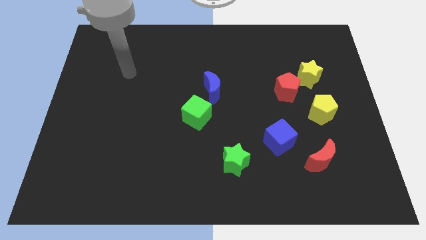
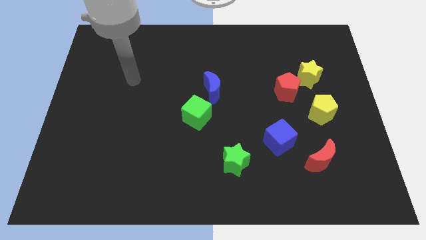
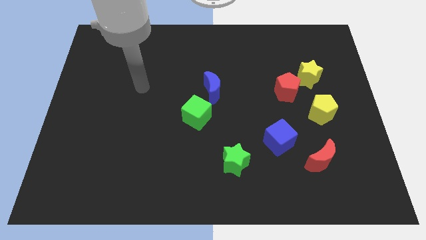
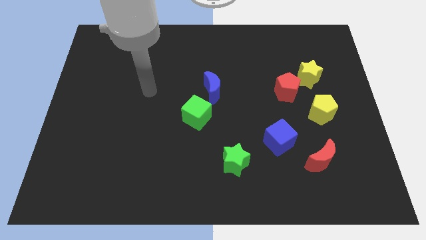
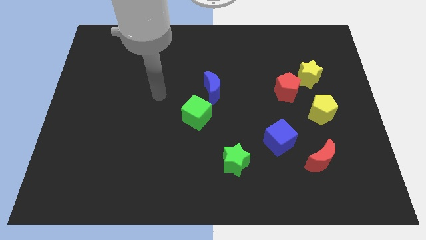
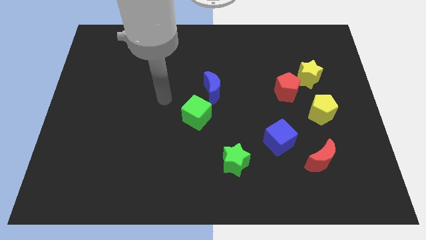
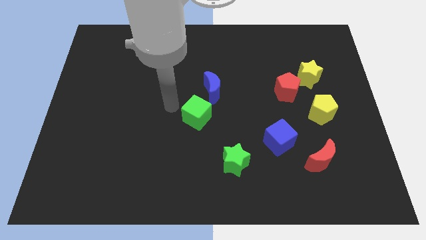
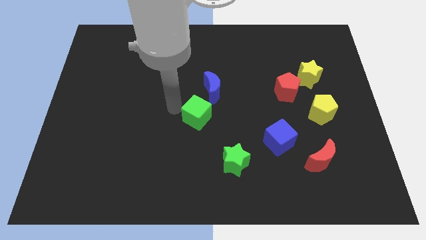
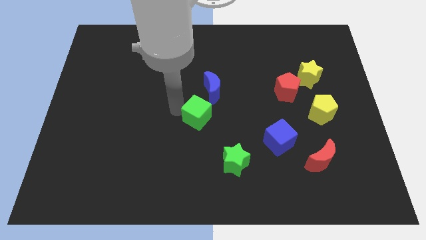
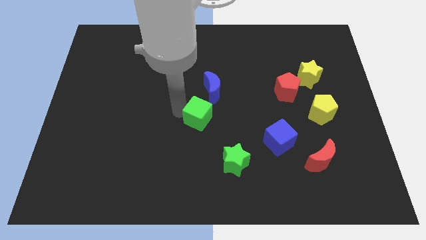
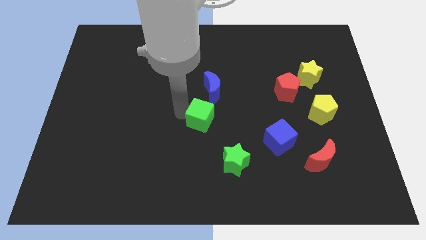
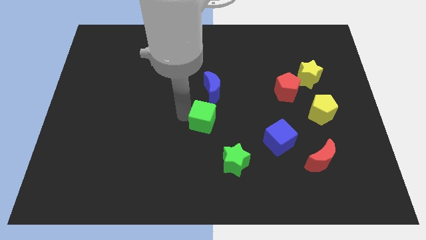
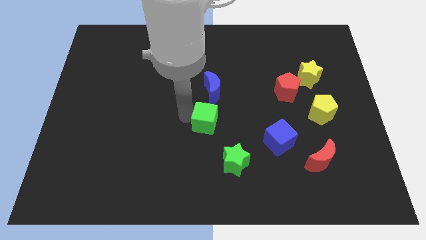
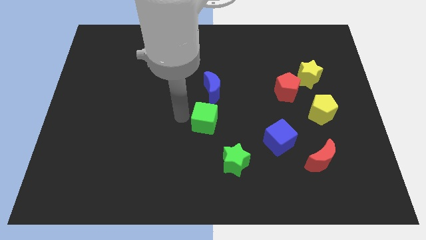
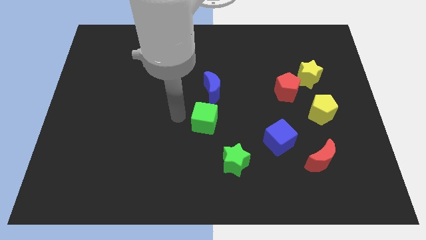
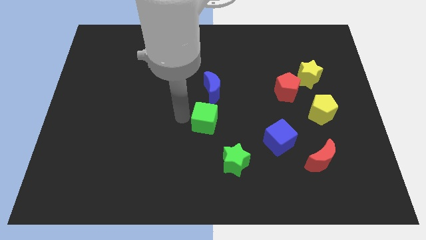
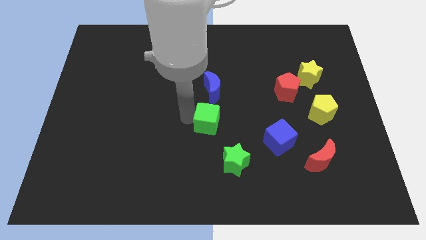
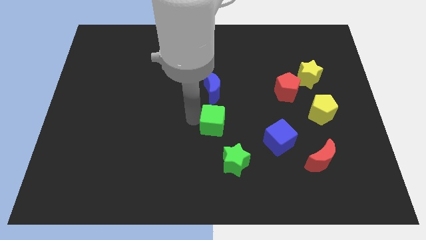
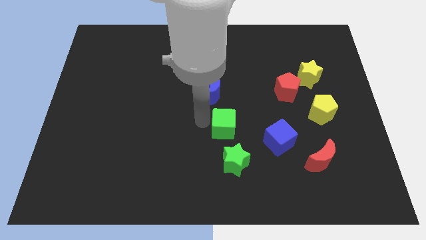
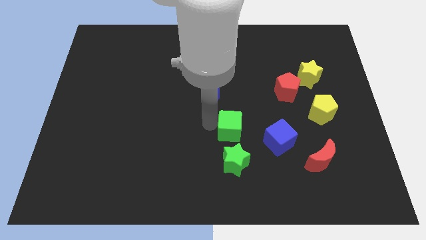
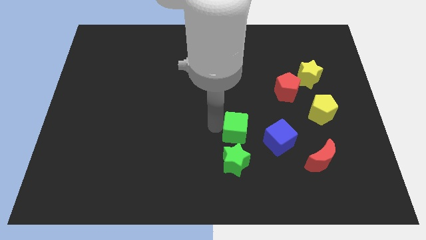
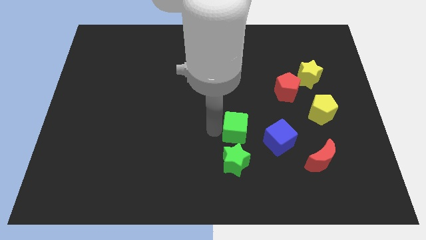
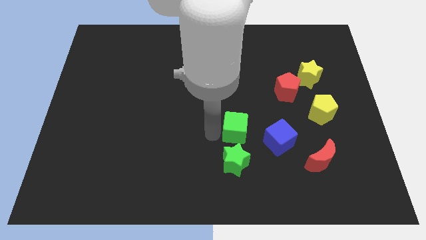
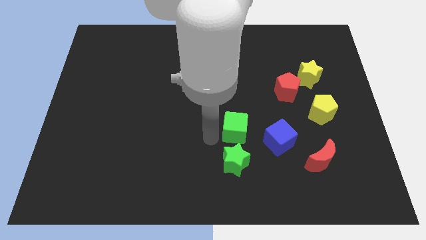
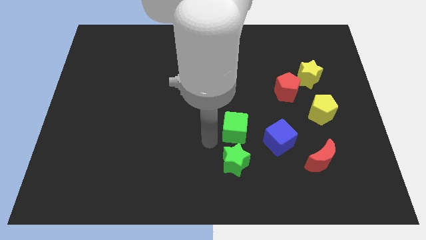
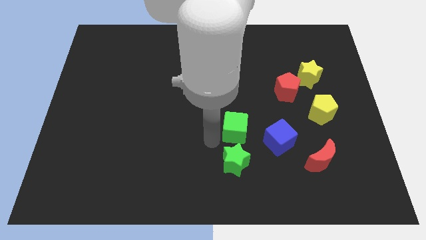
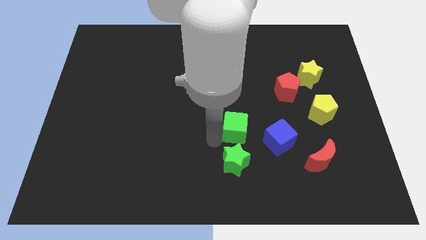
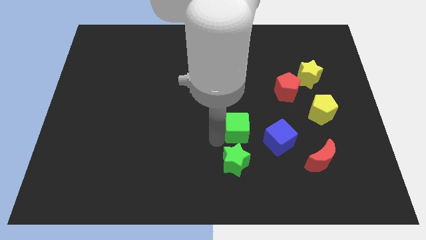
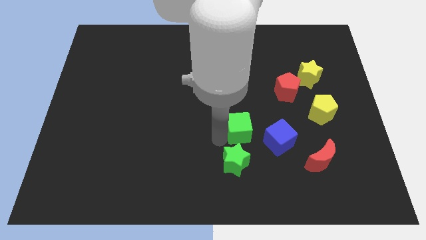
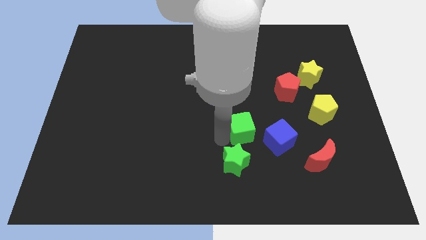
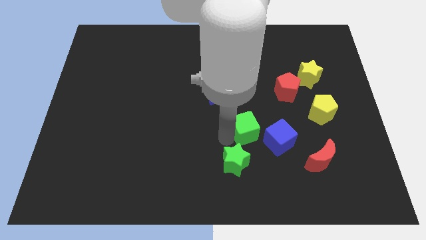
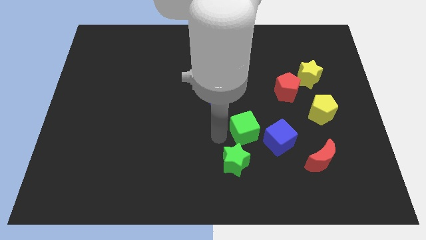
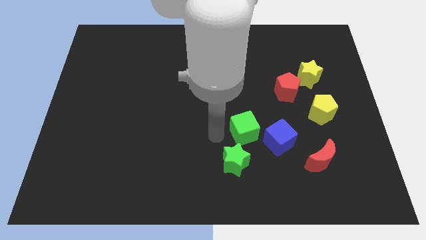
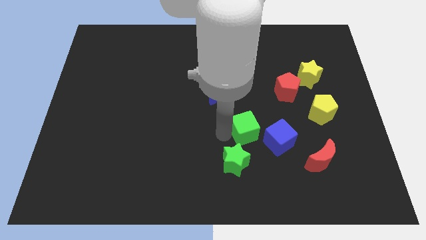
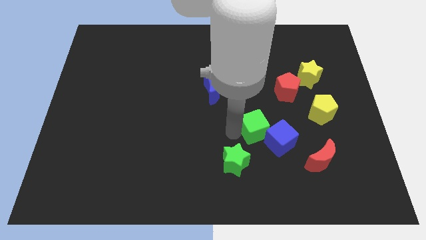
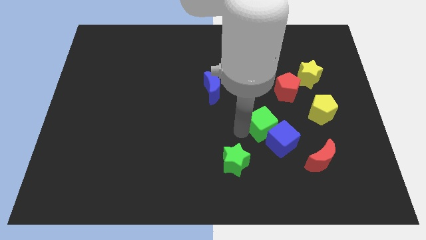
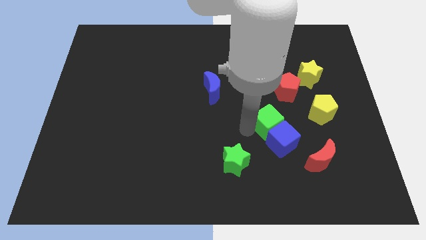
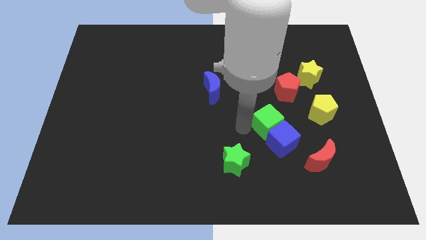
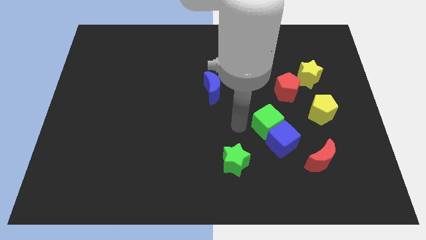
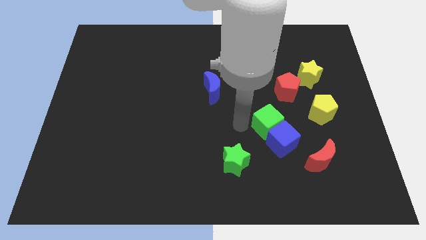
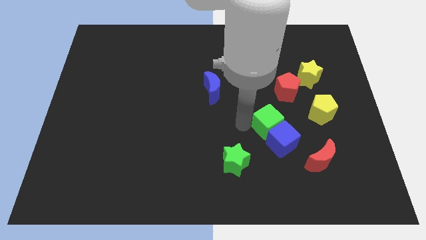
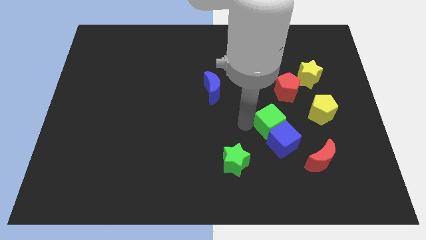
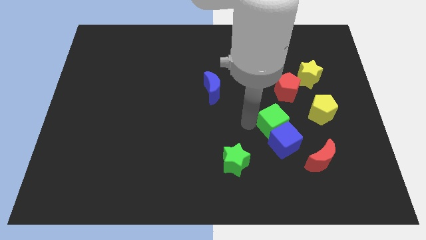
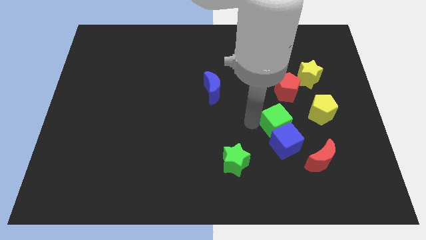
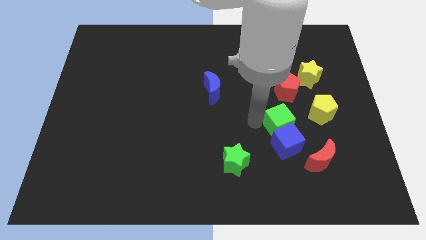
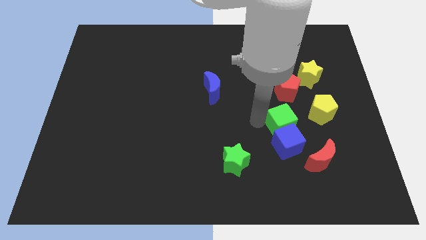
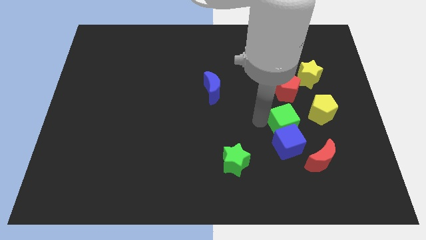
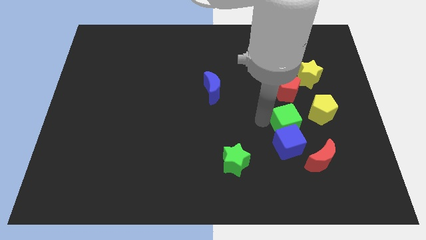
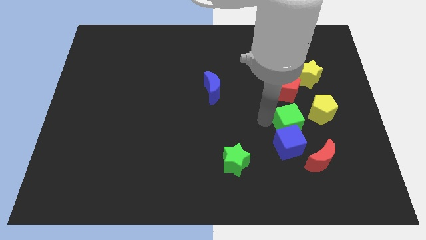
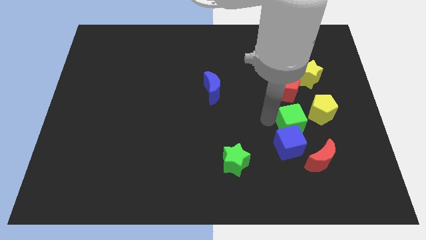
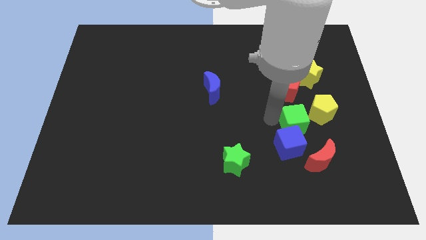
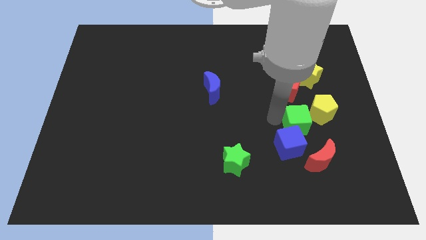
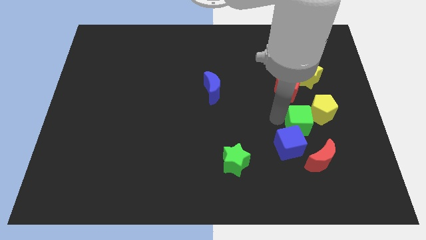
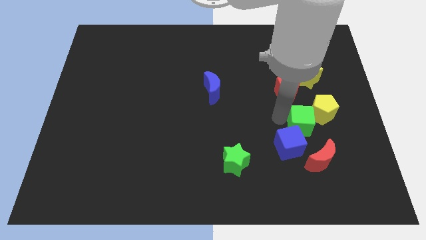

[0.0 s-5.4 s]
push the green cube to the bottom of the yellow star

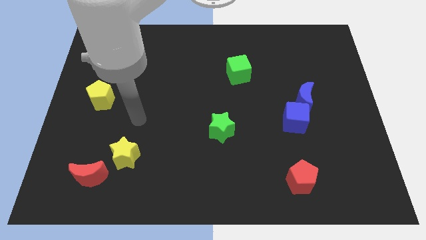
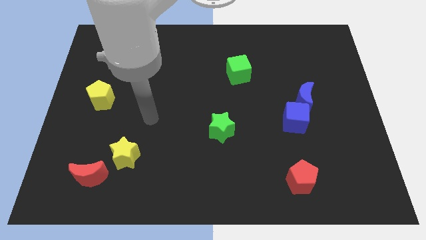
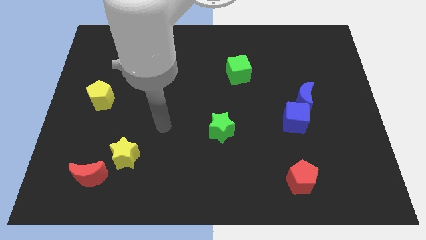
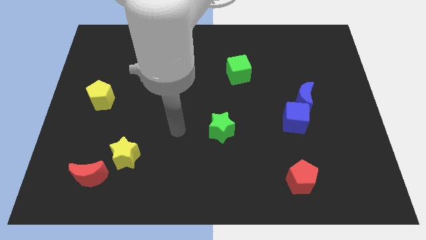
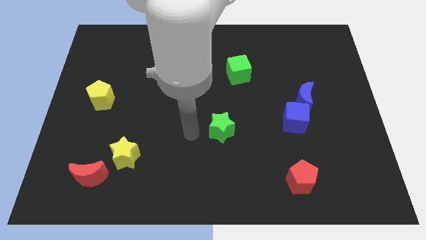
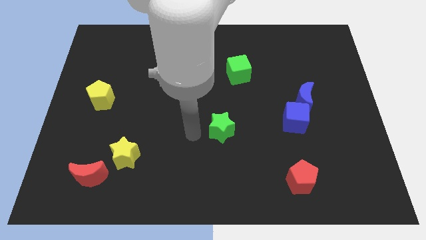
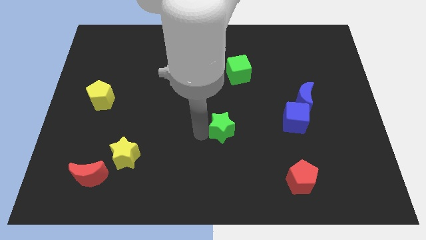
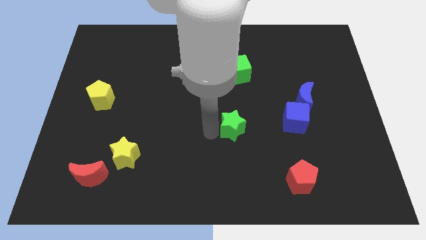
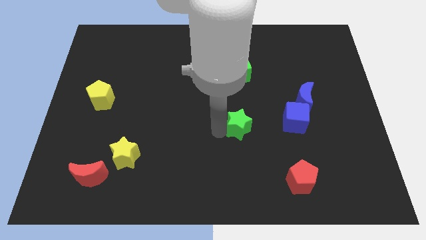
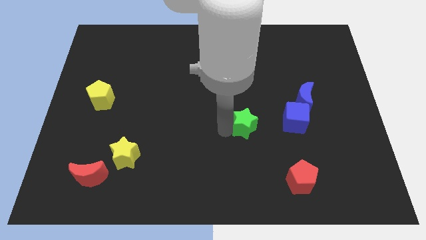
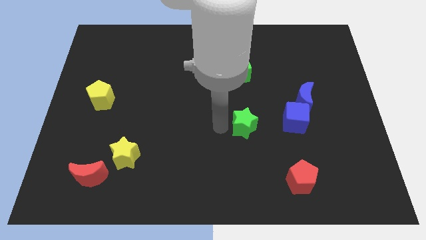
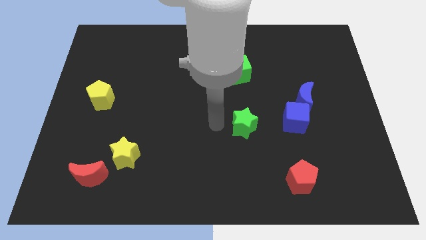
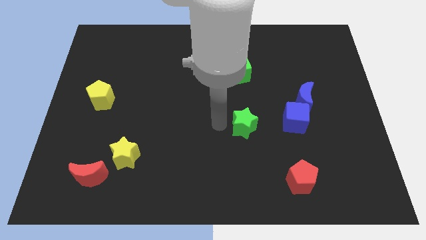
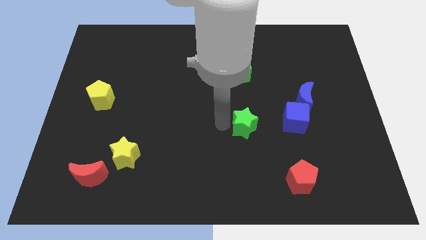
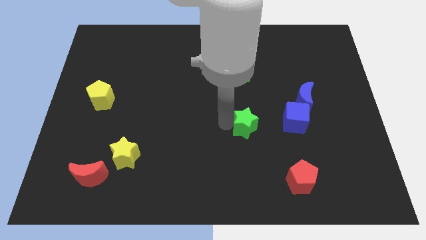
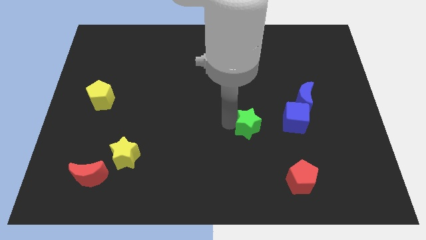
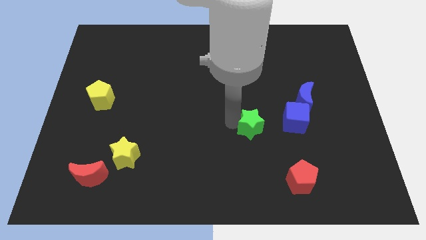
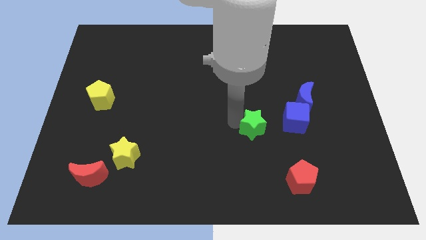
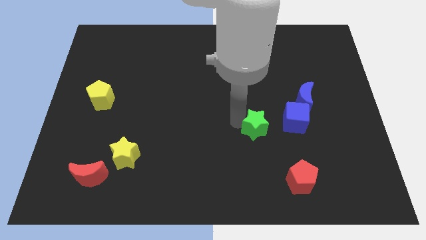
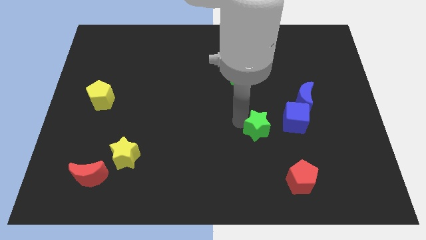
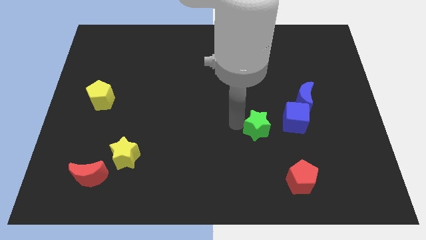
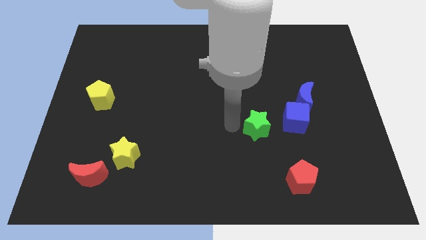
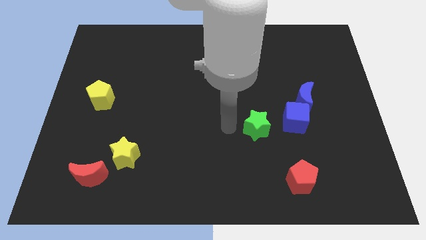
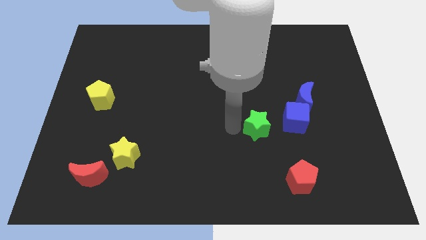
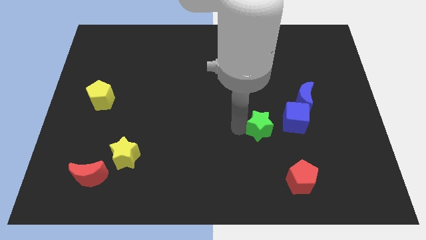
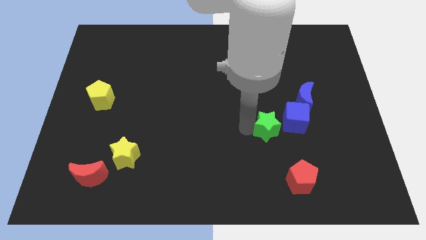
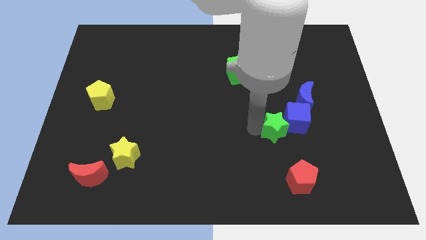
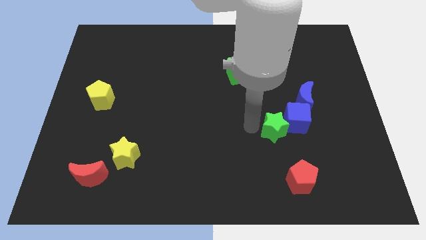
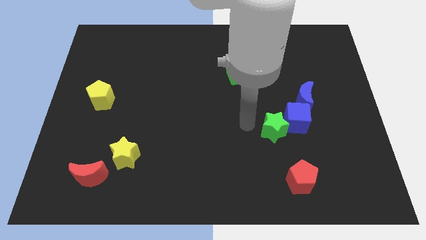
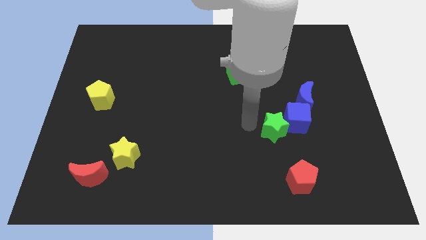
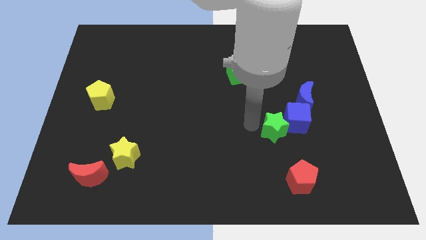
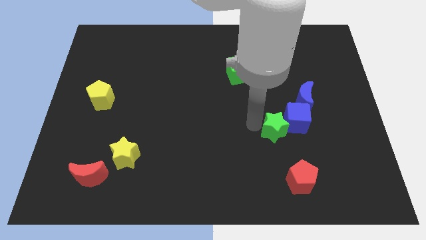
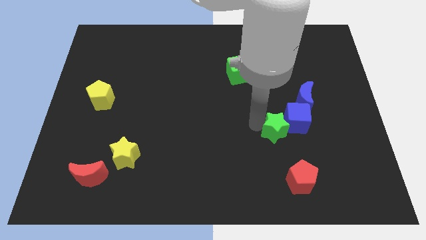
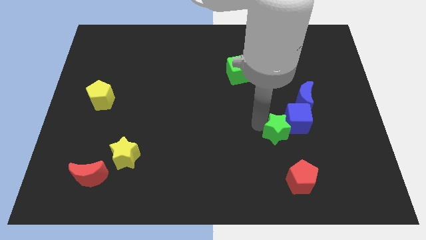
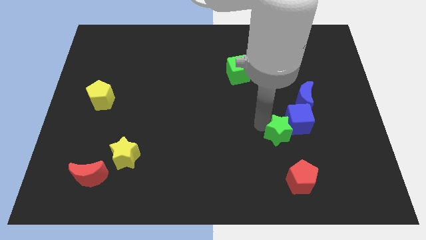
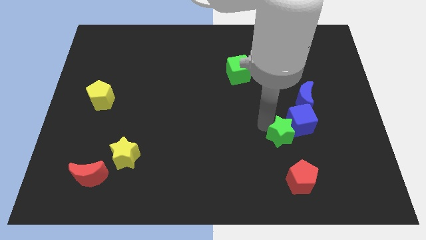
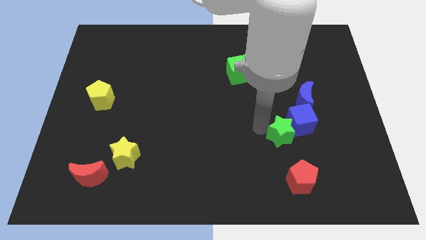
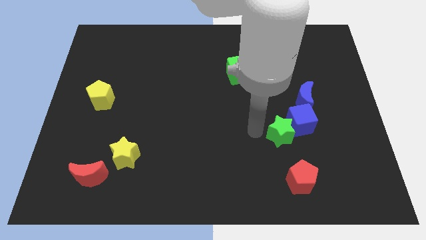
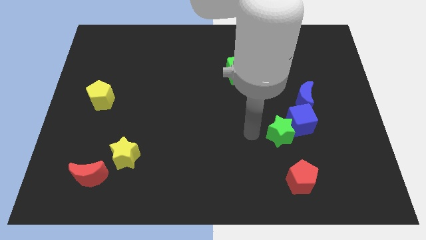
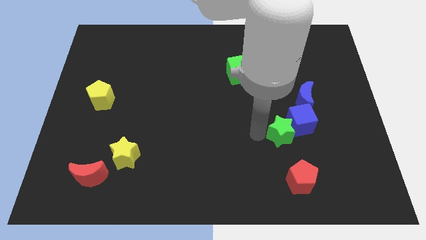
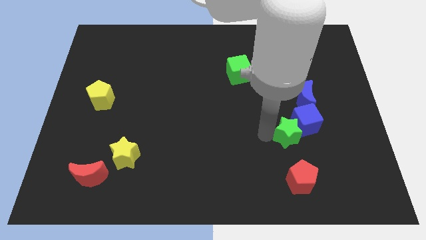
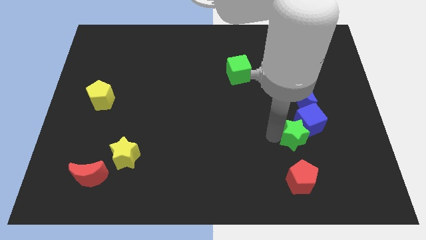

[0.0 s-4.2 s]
put the green star below the blue moon
